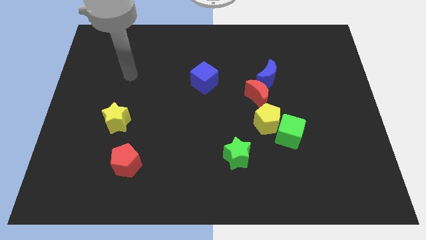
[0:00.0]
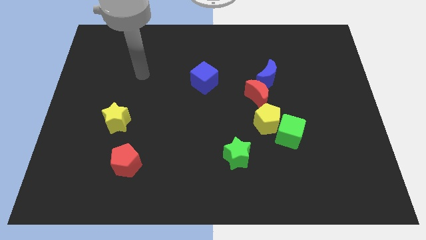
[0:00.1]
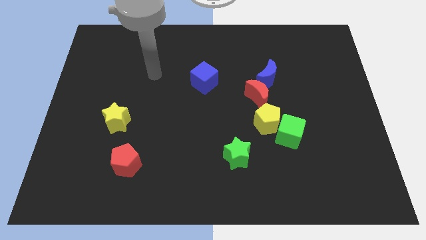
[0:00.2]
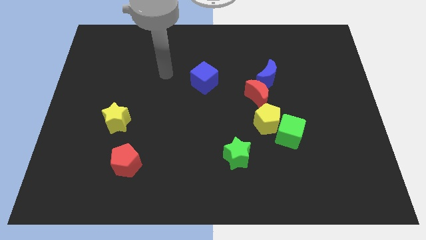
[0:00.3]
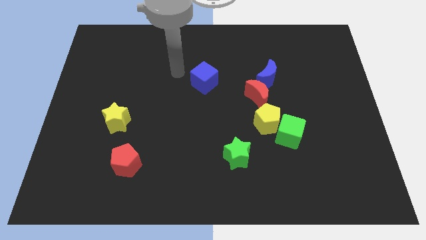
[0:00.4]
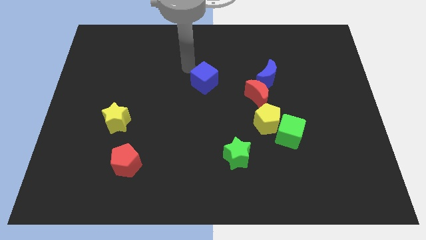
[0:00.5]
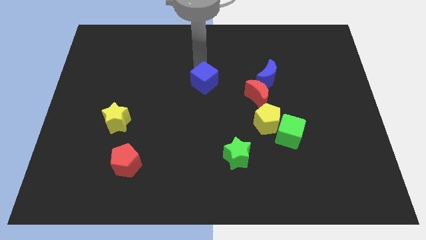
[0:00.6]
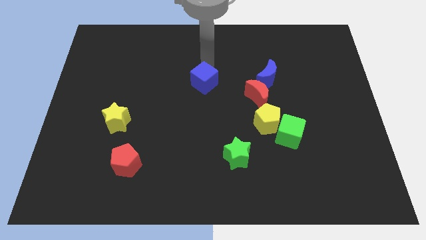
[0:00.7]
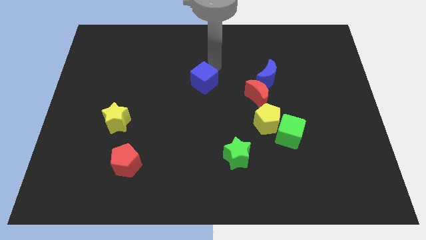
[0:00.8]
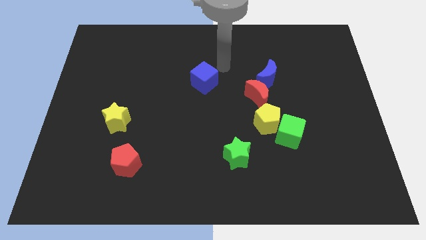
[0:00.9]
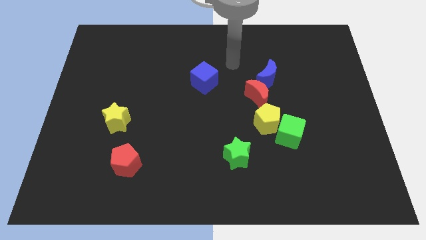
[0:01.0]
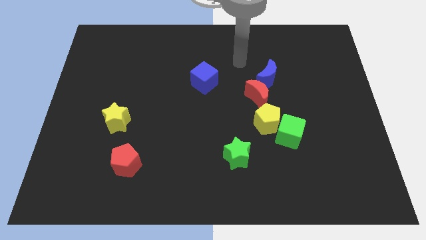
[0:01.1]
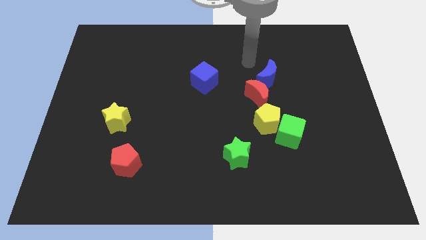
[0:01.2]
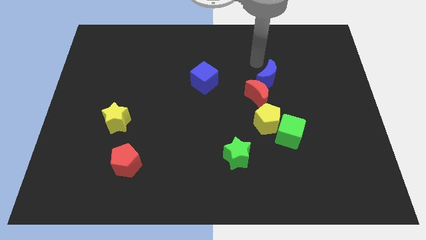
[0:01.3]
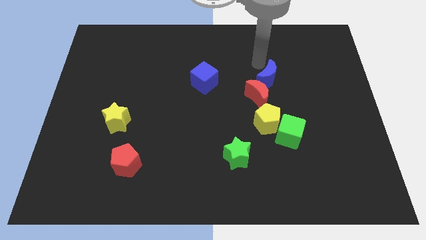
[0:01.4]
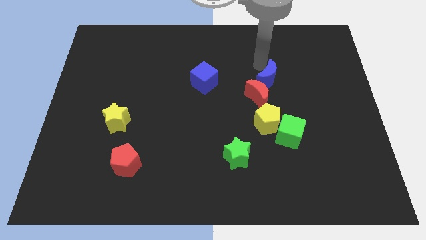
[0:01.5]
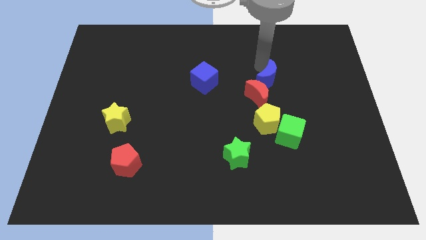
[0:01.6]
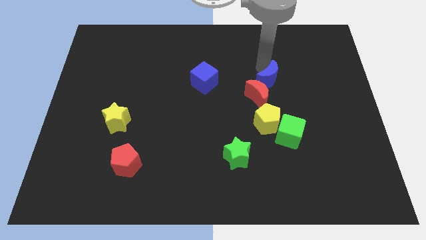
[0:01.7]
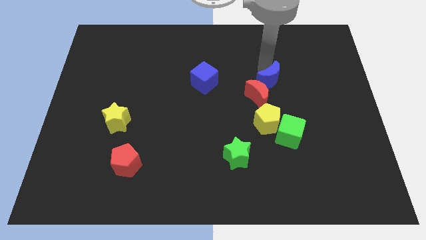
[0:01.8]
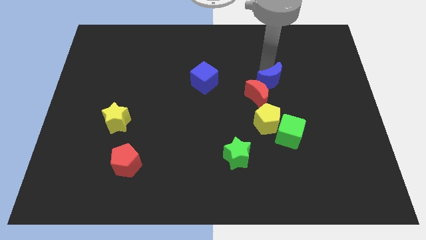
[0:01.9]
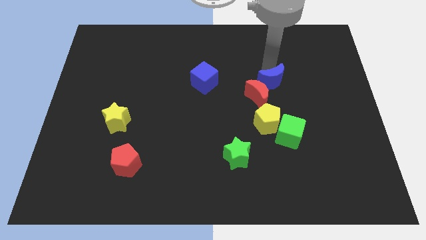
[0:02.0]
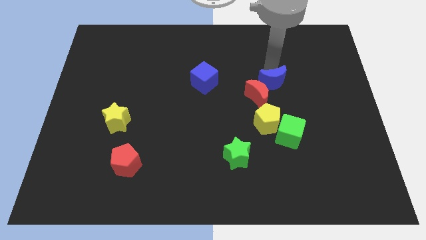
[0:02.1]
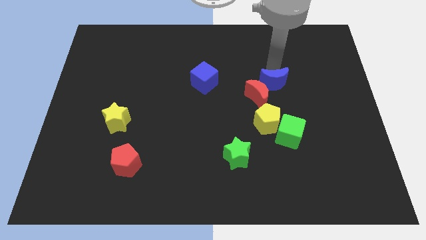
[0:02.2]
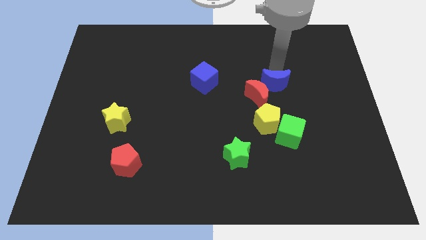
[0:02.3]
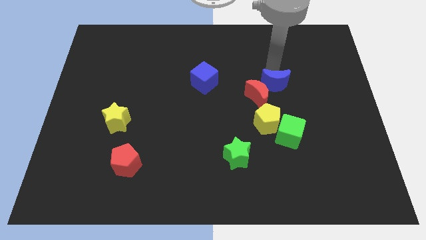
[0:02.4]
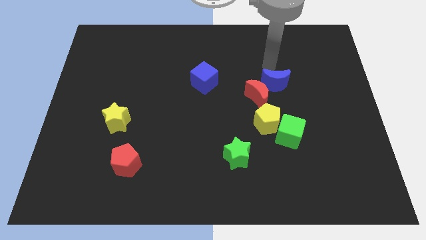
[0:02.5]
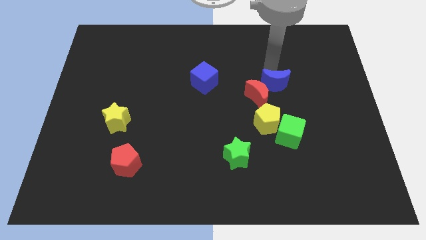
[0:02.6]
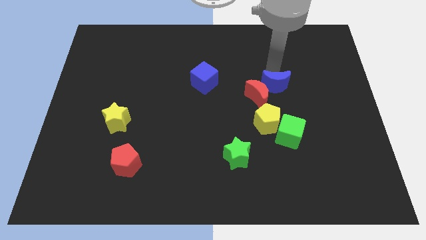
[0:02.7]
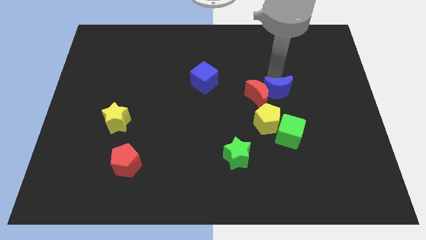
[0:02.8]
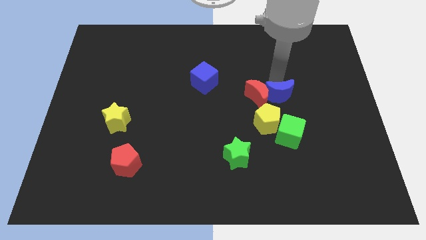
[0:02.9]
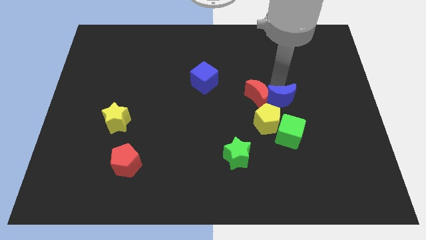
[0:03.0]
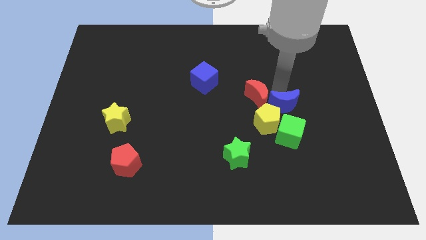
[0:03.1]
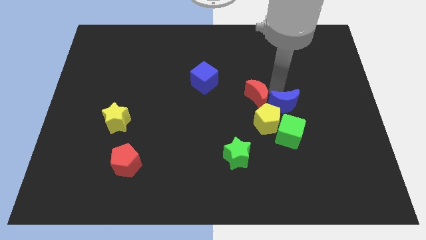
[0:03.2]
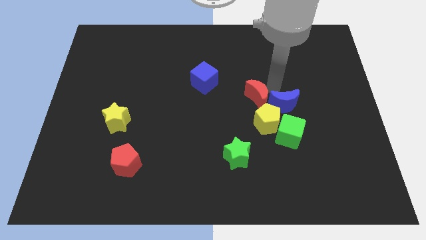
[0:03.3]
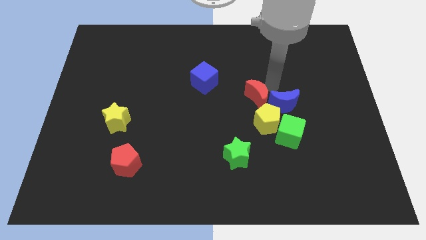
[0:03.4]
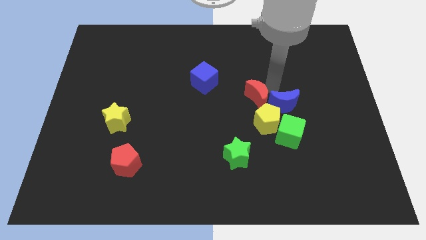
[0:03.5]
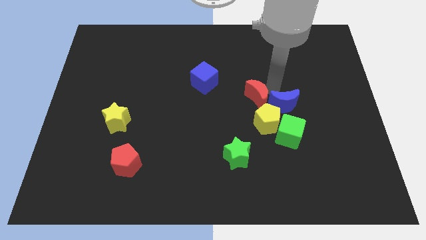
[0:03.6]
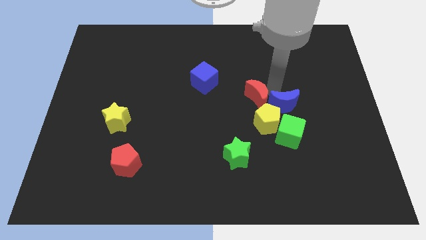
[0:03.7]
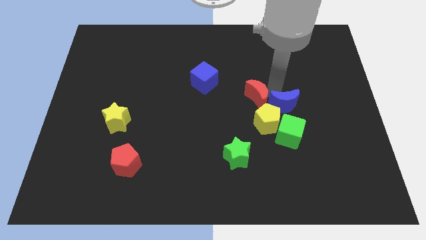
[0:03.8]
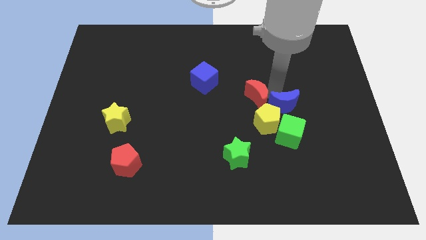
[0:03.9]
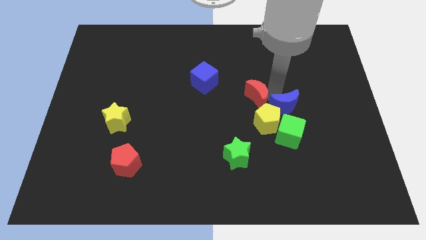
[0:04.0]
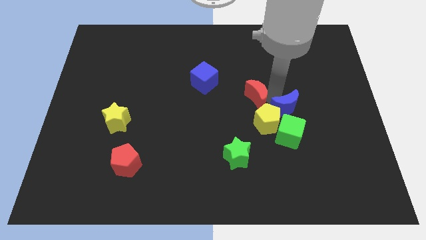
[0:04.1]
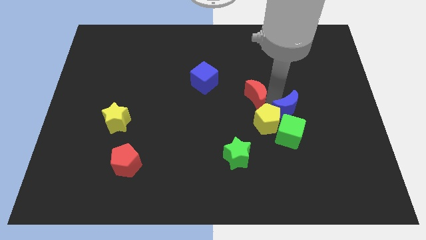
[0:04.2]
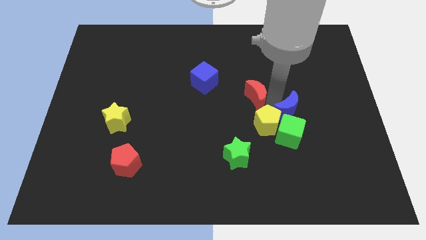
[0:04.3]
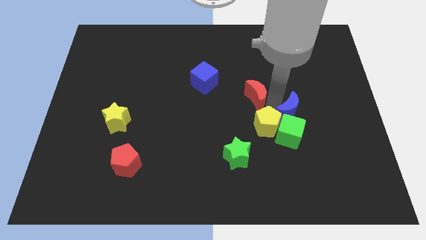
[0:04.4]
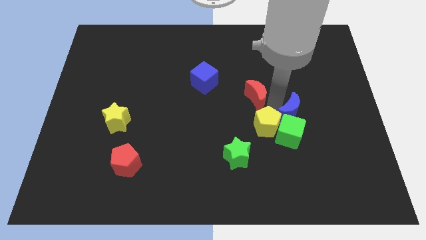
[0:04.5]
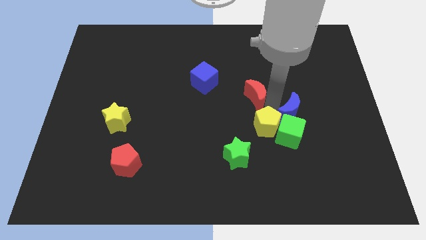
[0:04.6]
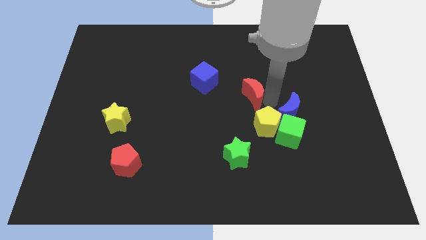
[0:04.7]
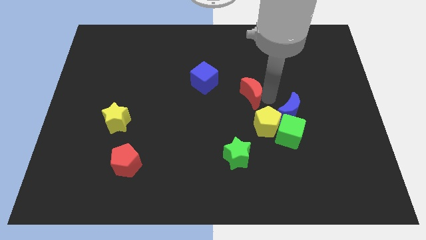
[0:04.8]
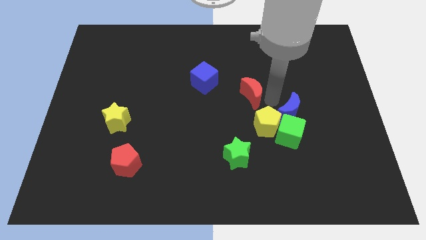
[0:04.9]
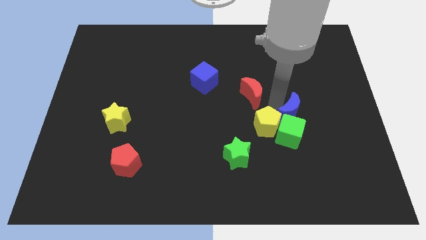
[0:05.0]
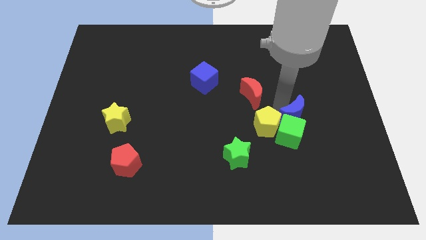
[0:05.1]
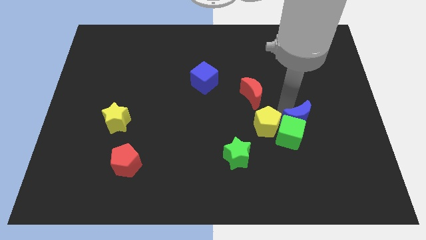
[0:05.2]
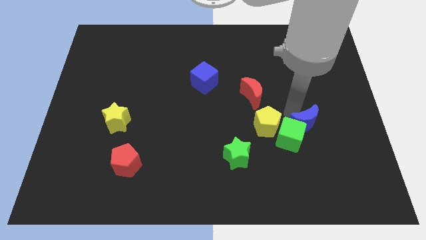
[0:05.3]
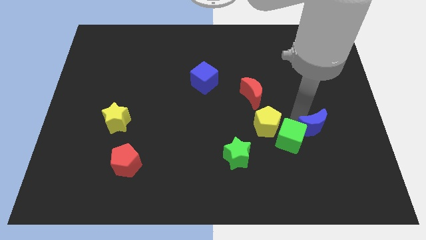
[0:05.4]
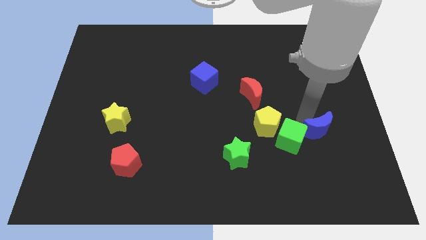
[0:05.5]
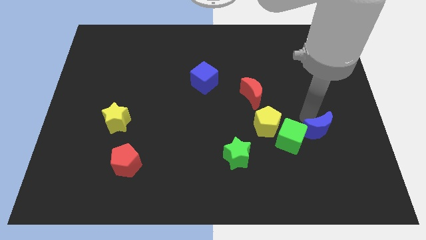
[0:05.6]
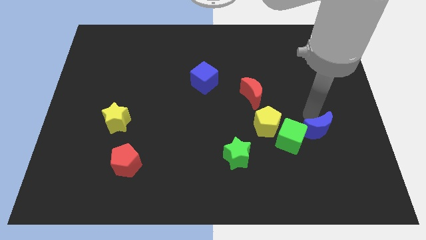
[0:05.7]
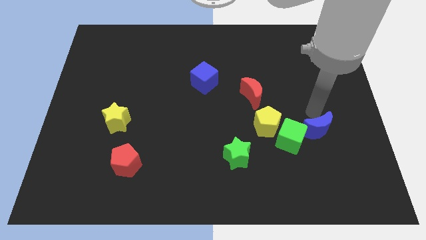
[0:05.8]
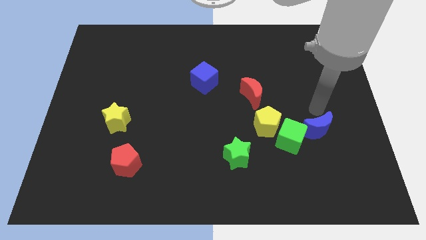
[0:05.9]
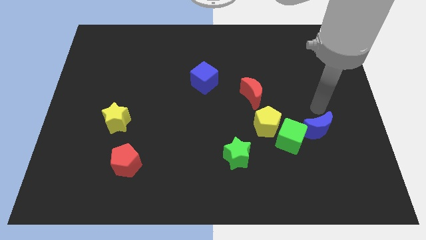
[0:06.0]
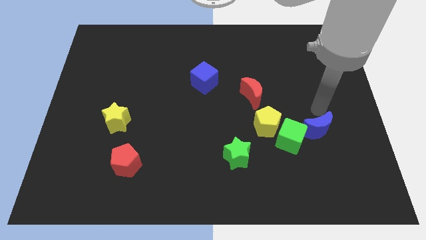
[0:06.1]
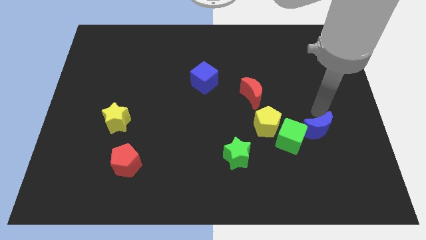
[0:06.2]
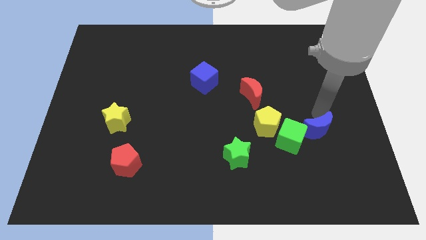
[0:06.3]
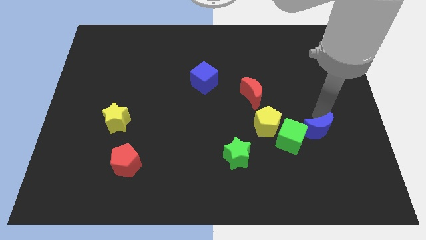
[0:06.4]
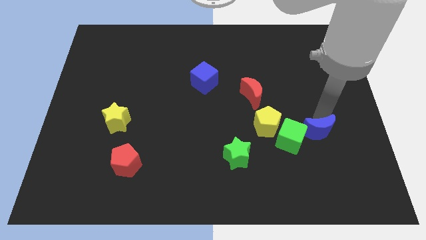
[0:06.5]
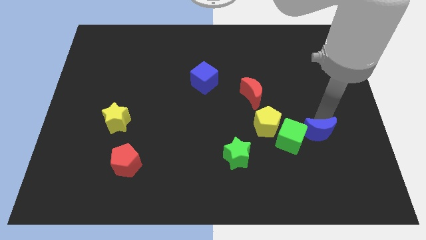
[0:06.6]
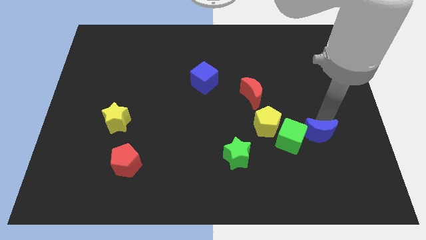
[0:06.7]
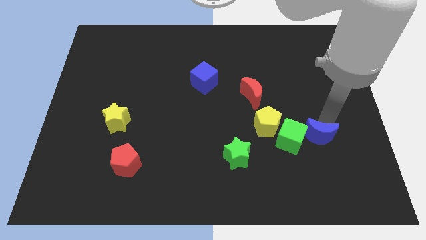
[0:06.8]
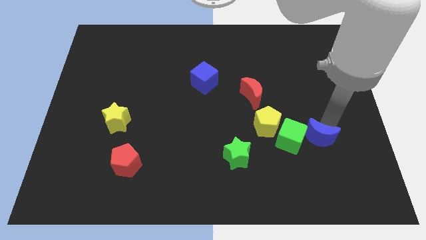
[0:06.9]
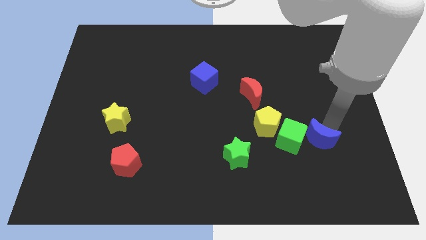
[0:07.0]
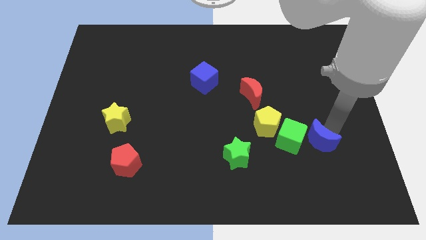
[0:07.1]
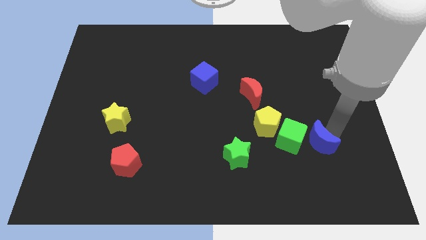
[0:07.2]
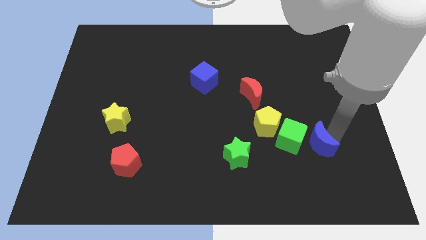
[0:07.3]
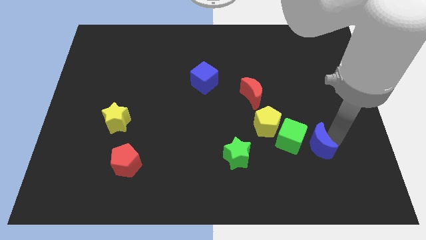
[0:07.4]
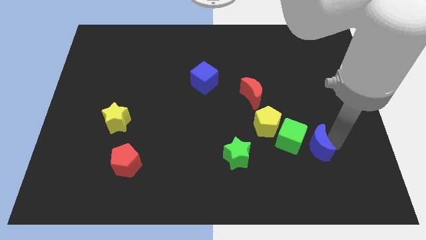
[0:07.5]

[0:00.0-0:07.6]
slide the blue moon to the bottom right side of the yellow pentagon
